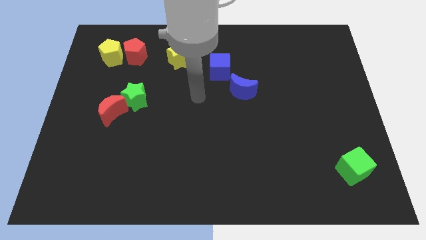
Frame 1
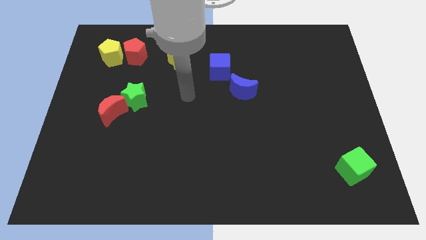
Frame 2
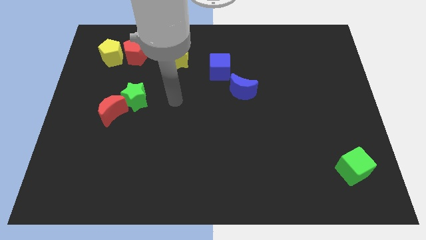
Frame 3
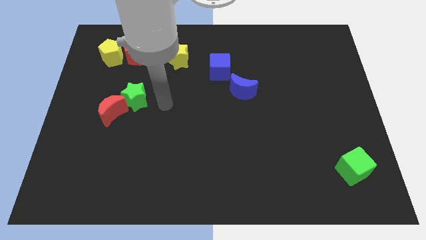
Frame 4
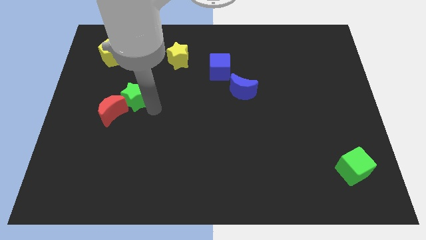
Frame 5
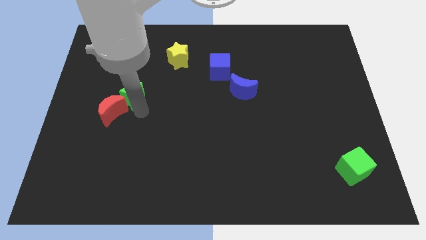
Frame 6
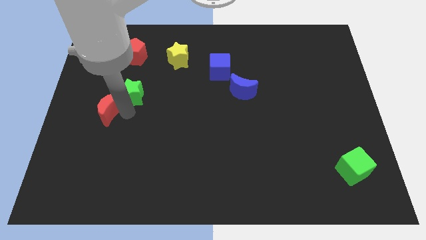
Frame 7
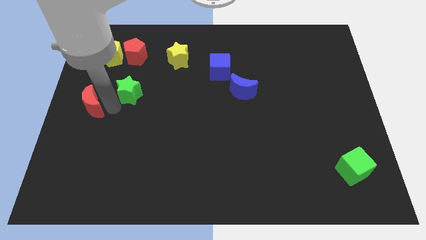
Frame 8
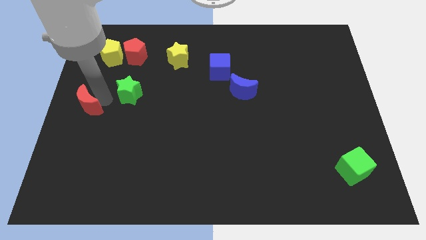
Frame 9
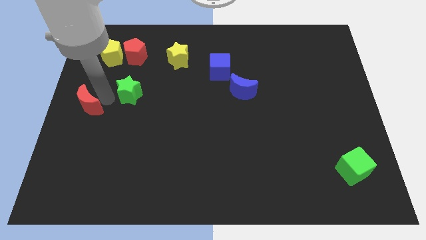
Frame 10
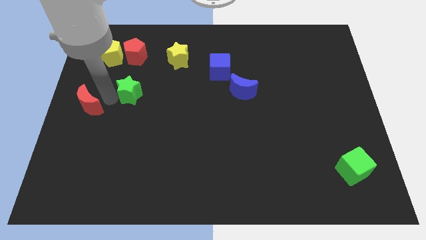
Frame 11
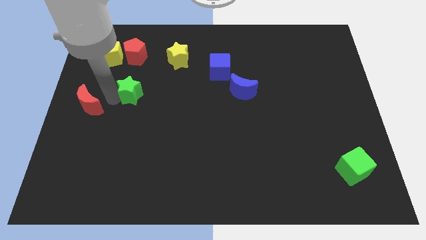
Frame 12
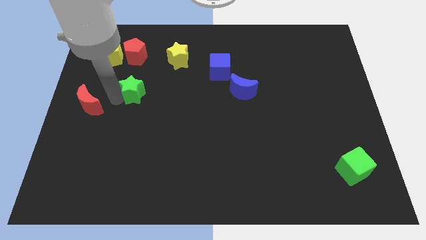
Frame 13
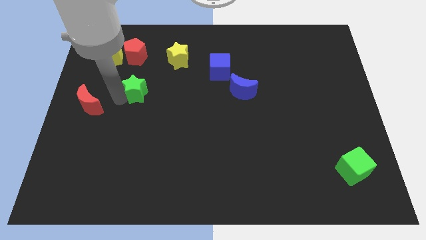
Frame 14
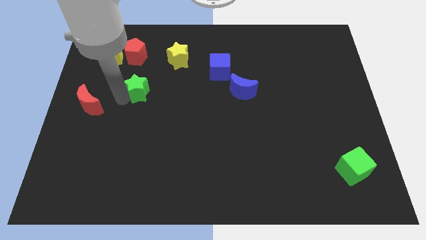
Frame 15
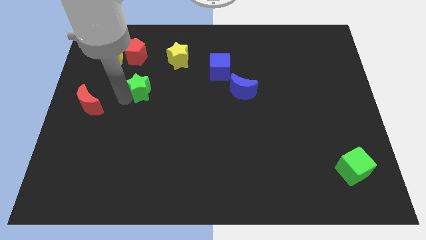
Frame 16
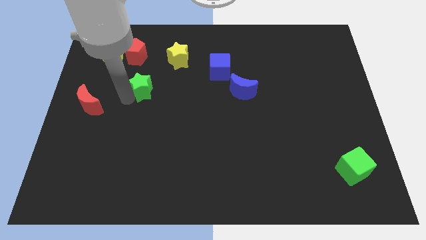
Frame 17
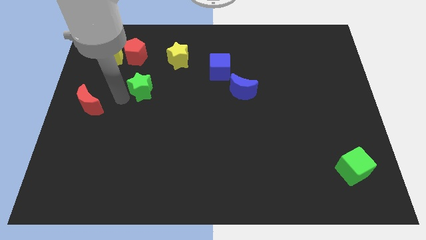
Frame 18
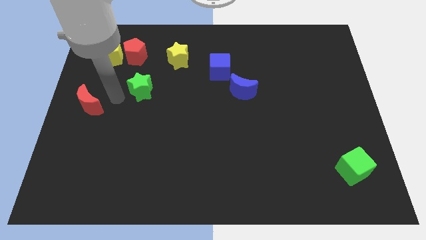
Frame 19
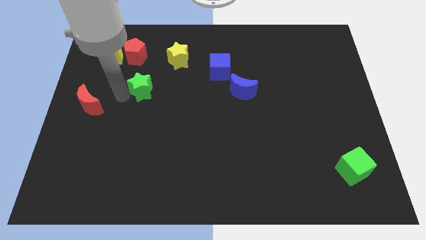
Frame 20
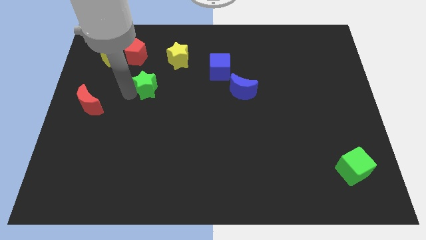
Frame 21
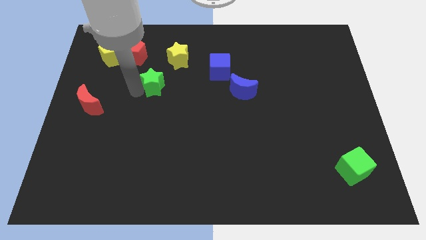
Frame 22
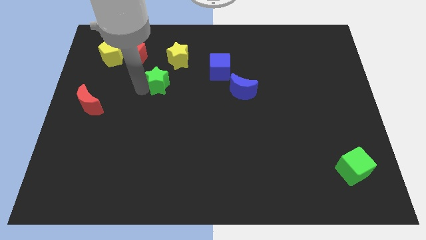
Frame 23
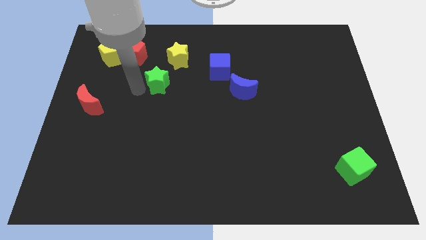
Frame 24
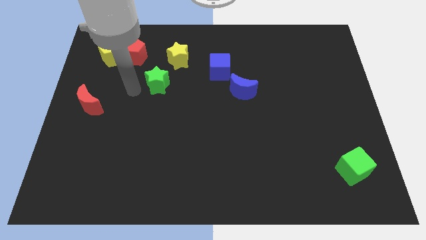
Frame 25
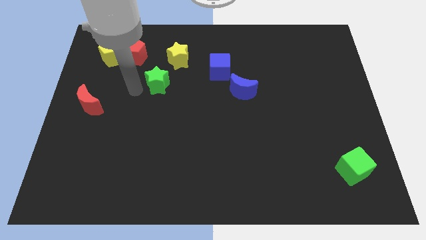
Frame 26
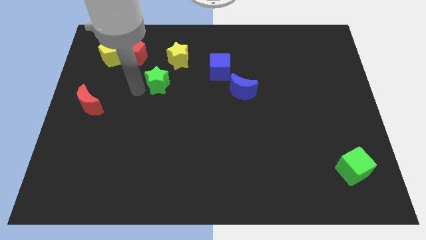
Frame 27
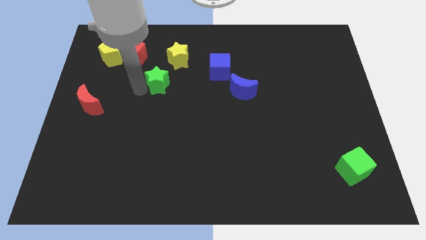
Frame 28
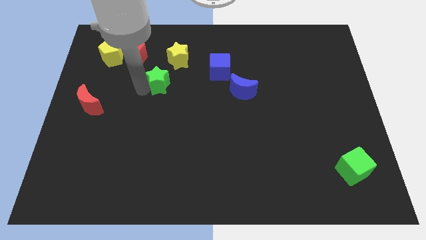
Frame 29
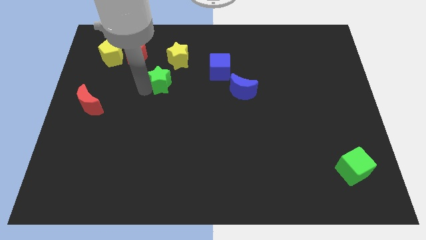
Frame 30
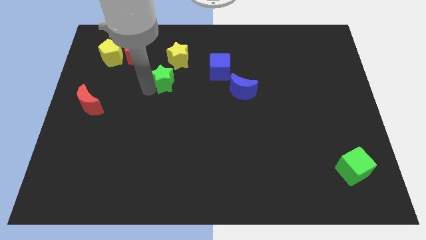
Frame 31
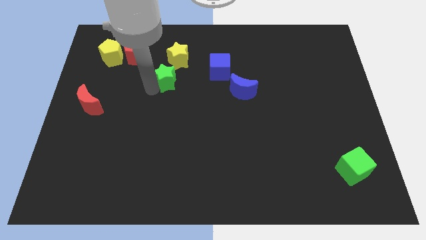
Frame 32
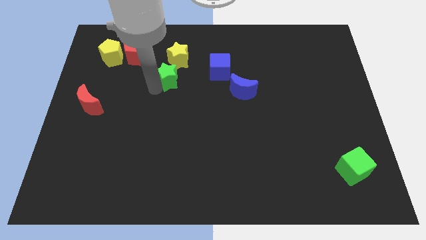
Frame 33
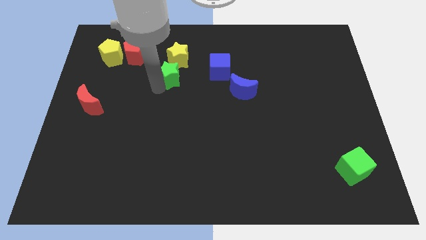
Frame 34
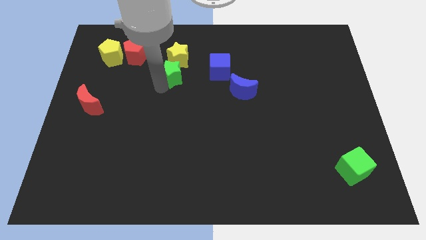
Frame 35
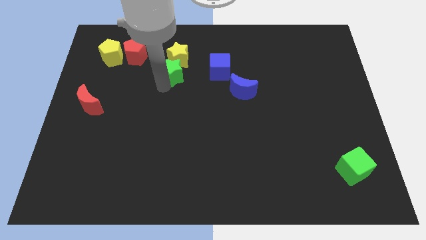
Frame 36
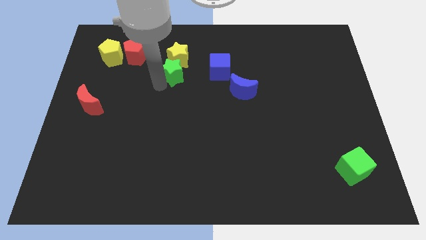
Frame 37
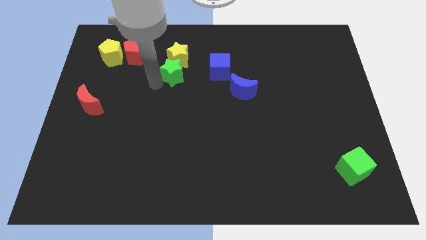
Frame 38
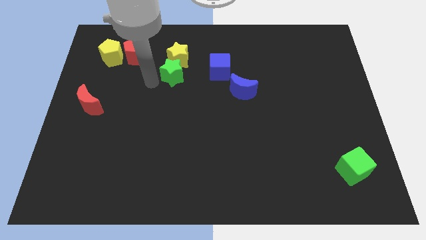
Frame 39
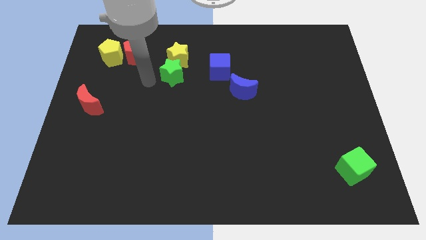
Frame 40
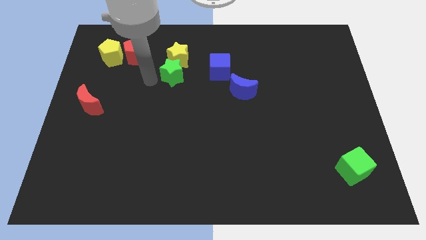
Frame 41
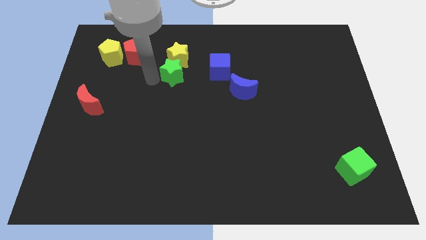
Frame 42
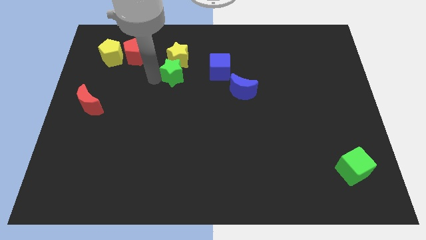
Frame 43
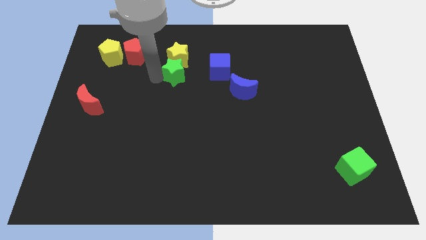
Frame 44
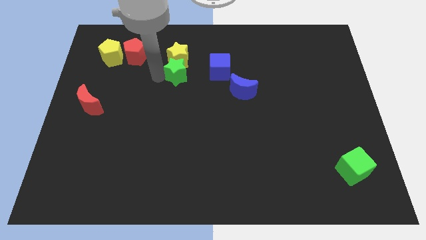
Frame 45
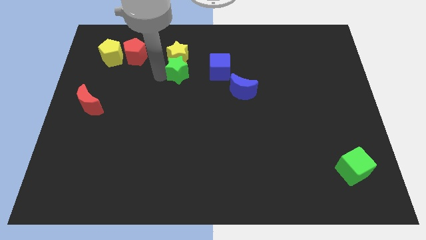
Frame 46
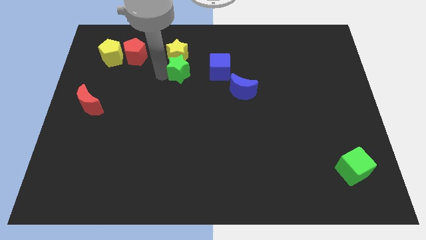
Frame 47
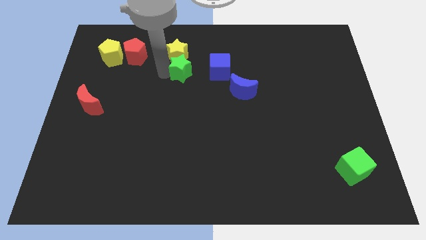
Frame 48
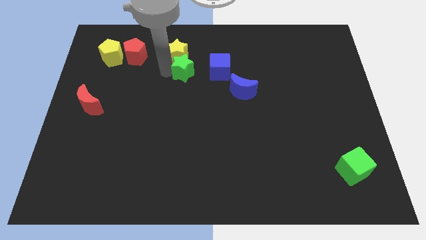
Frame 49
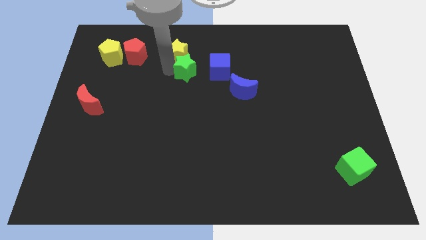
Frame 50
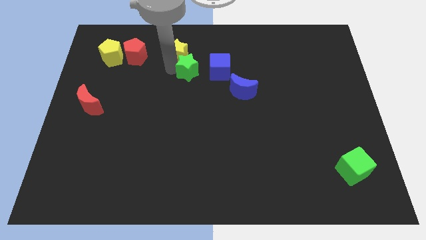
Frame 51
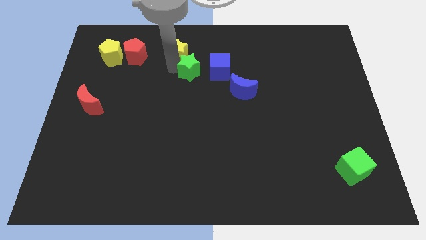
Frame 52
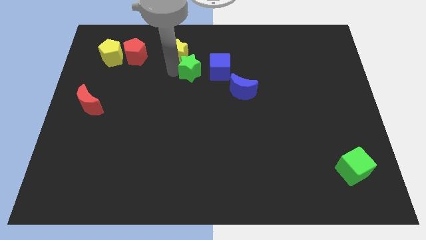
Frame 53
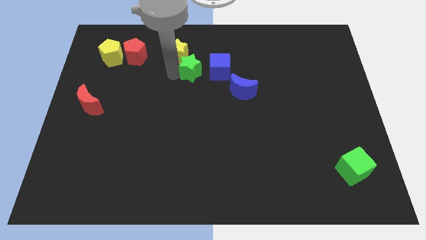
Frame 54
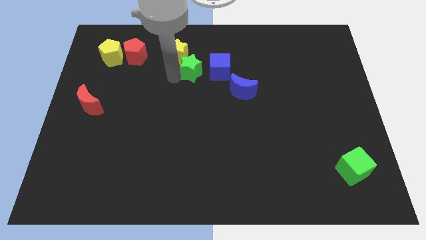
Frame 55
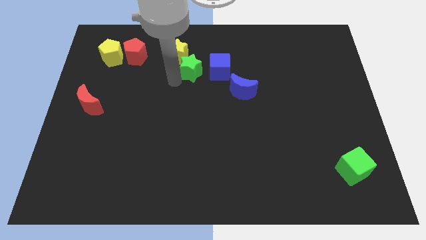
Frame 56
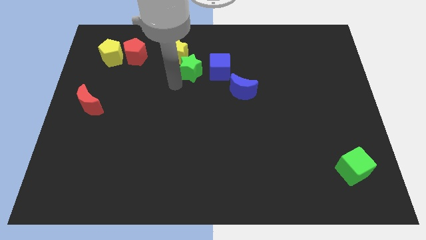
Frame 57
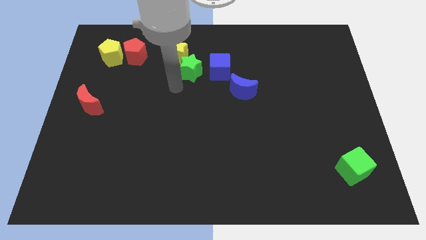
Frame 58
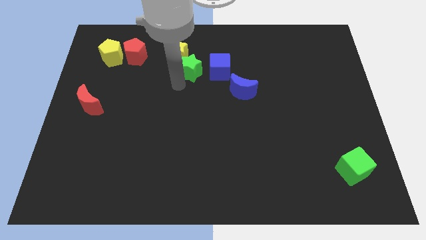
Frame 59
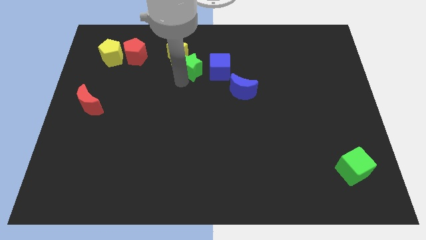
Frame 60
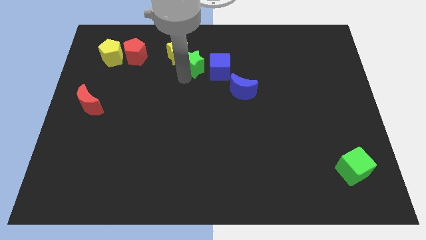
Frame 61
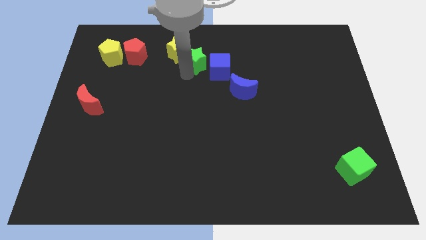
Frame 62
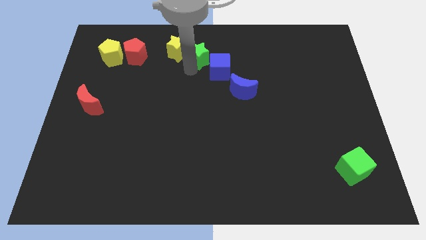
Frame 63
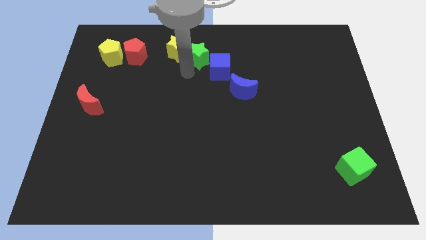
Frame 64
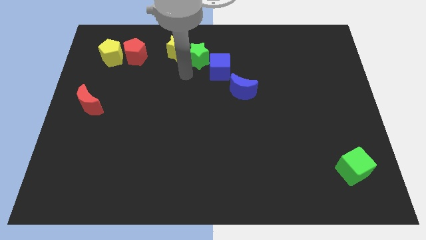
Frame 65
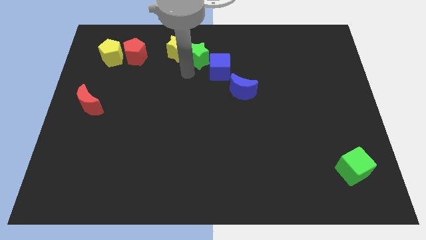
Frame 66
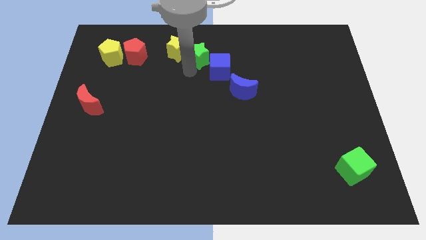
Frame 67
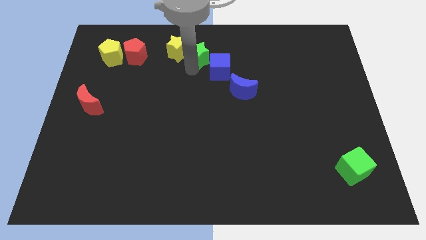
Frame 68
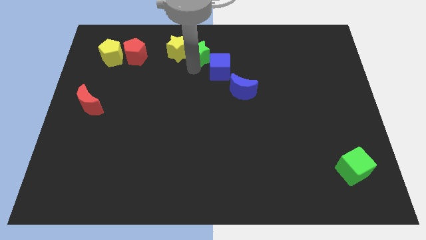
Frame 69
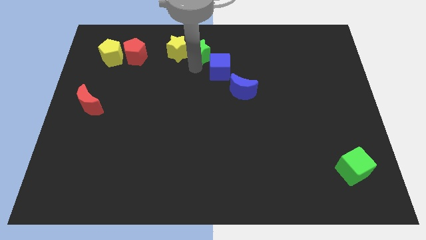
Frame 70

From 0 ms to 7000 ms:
slide the green star to the top side
